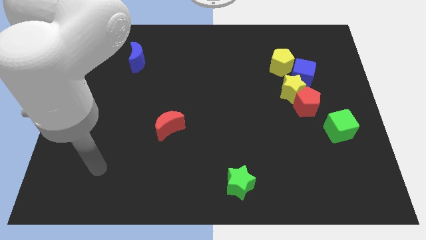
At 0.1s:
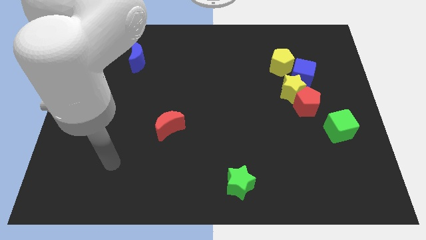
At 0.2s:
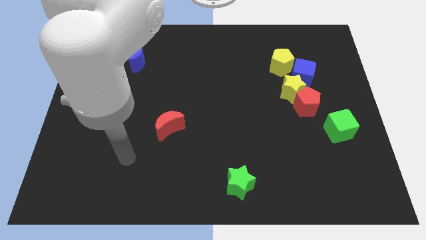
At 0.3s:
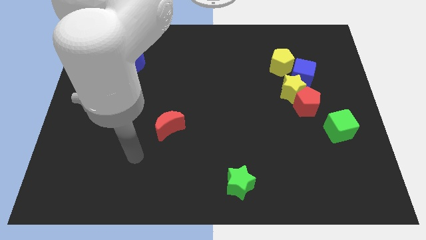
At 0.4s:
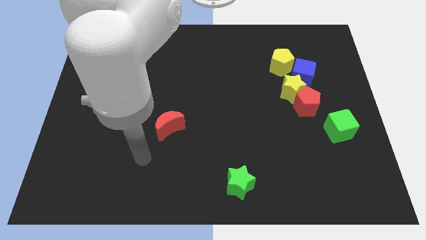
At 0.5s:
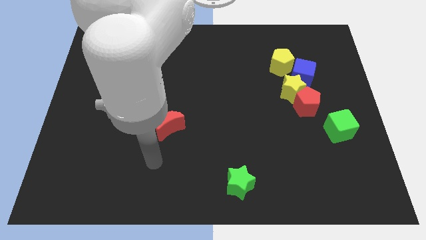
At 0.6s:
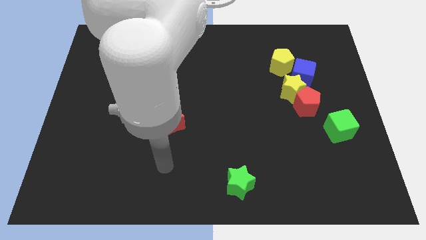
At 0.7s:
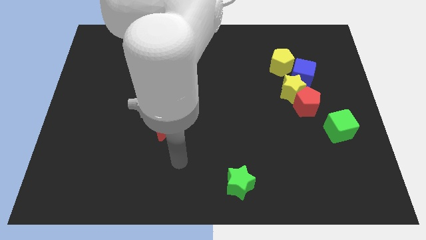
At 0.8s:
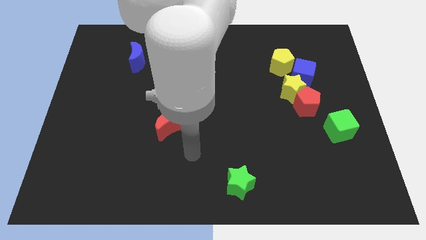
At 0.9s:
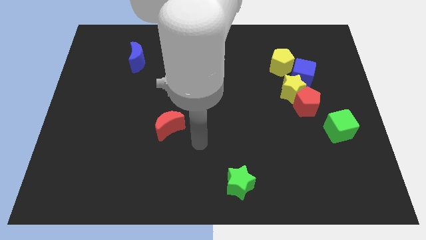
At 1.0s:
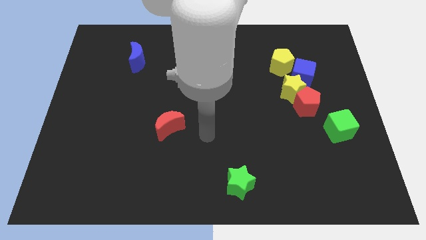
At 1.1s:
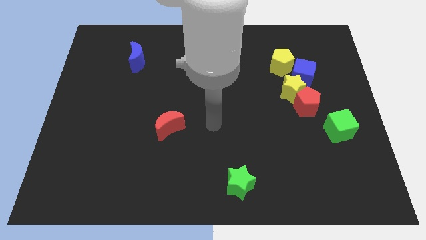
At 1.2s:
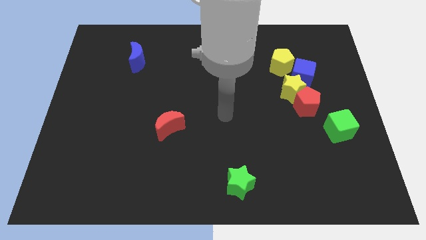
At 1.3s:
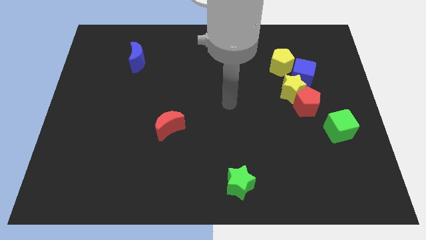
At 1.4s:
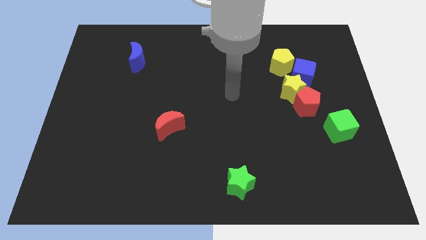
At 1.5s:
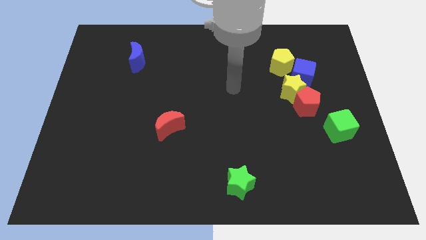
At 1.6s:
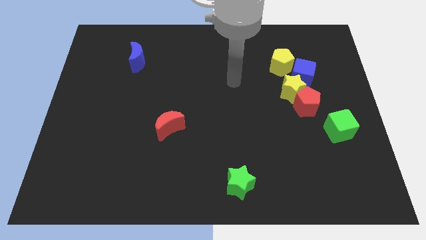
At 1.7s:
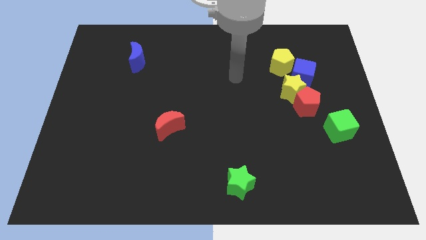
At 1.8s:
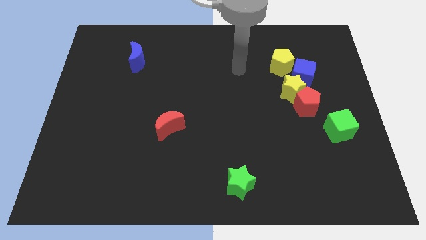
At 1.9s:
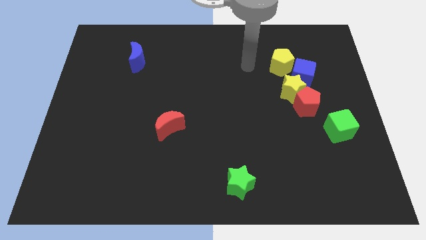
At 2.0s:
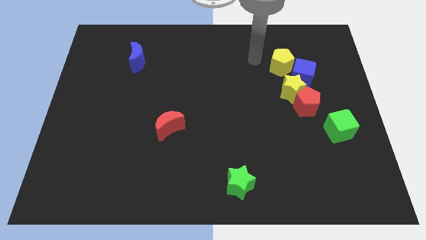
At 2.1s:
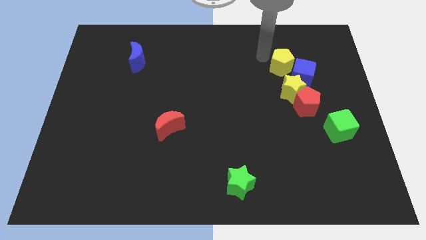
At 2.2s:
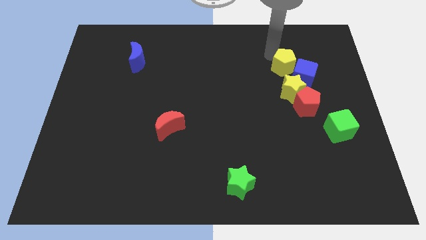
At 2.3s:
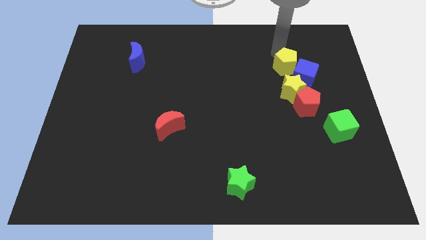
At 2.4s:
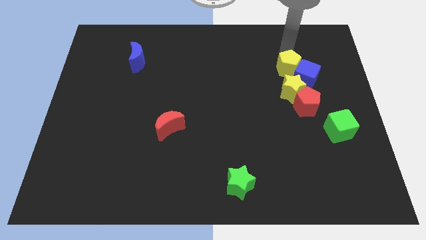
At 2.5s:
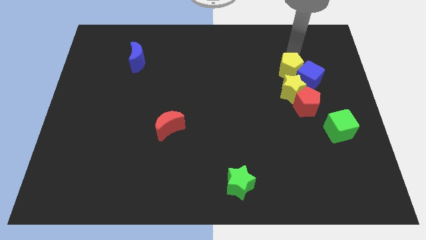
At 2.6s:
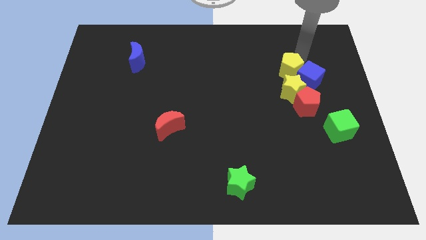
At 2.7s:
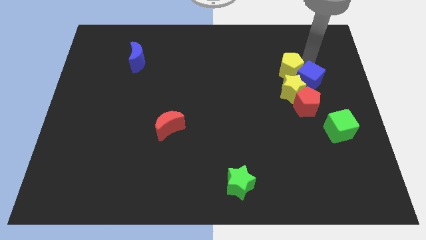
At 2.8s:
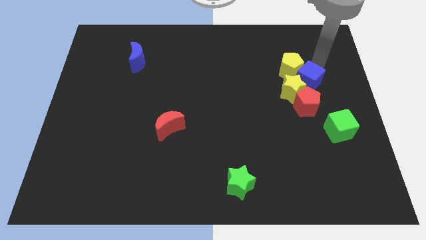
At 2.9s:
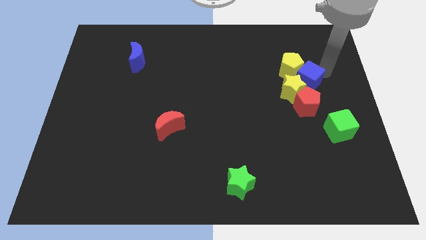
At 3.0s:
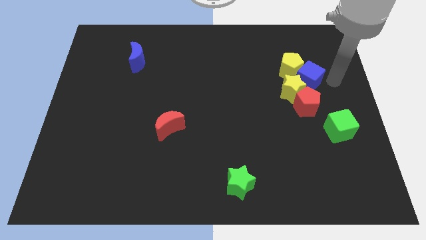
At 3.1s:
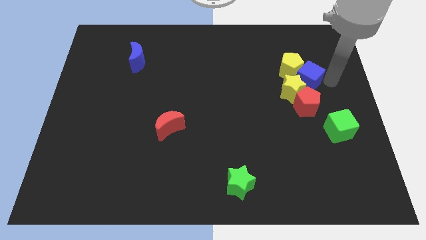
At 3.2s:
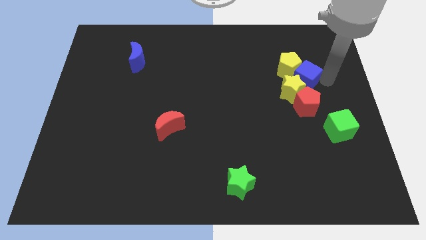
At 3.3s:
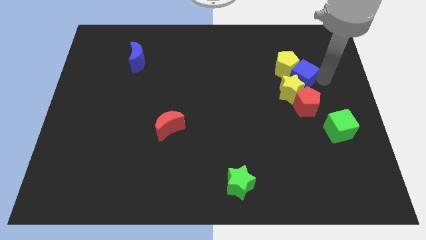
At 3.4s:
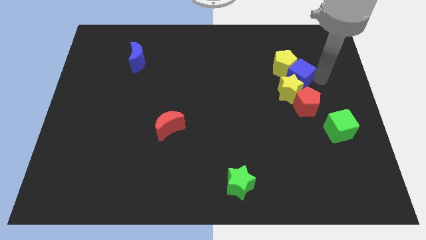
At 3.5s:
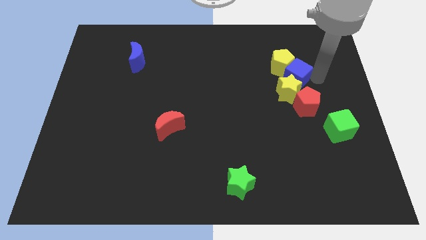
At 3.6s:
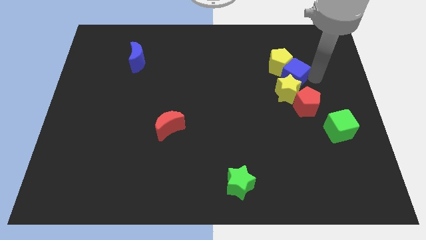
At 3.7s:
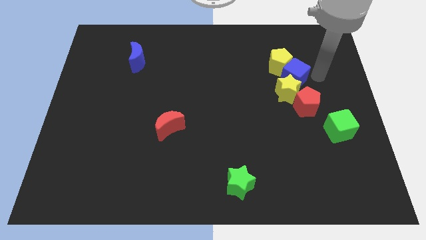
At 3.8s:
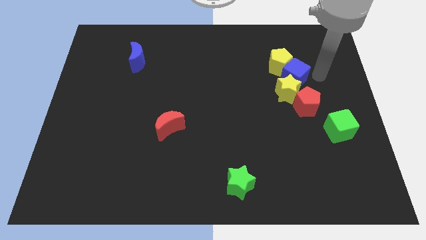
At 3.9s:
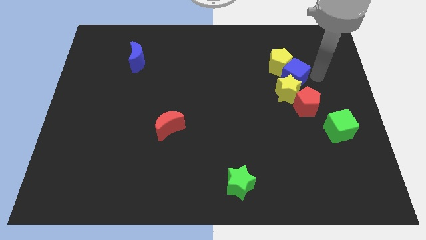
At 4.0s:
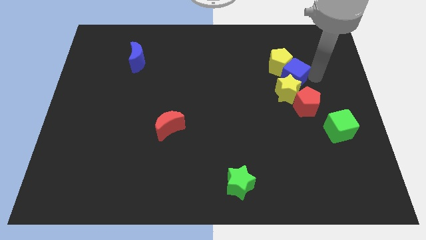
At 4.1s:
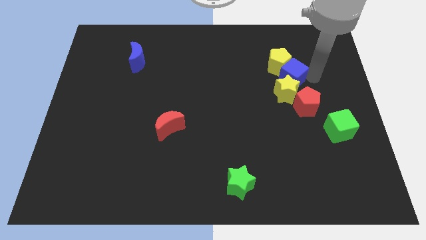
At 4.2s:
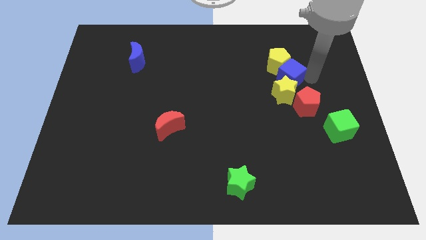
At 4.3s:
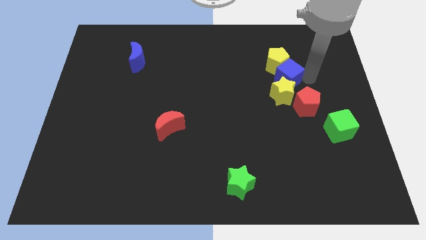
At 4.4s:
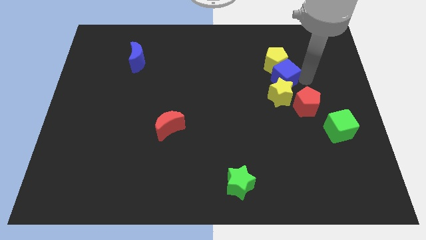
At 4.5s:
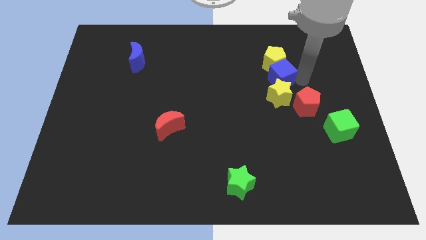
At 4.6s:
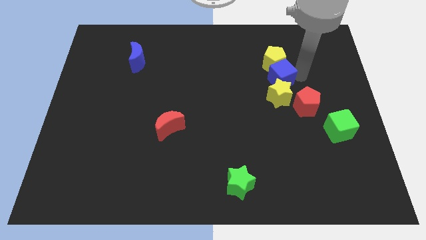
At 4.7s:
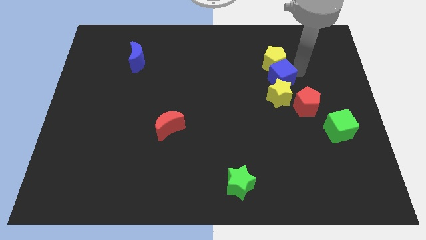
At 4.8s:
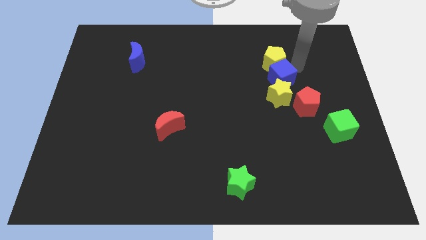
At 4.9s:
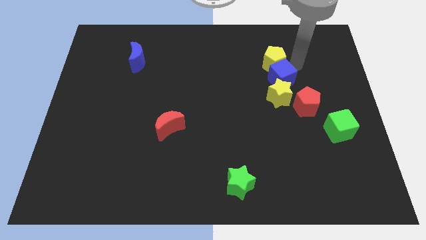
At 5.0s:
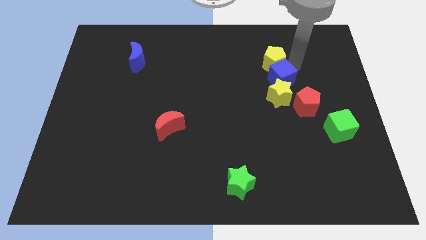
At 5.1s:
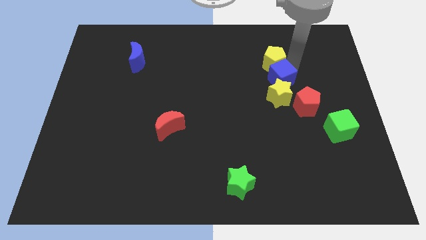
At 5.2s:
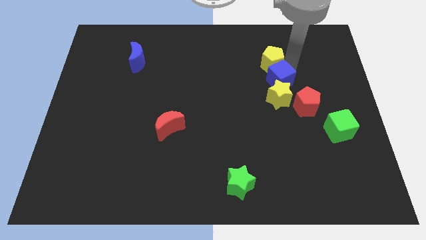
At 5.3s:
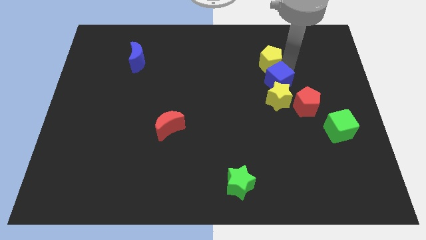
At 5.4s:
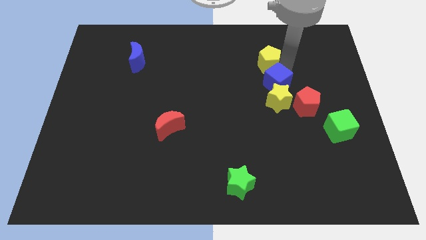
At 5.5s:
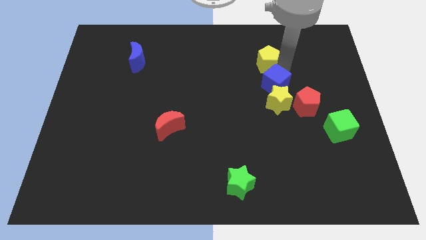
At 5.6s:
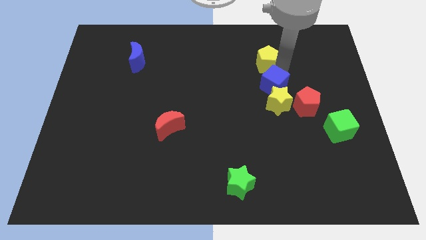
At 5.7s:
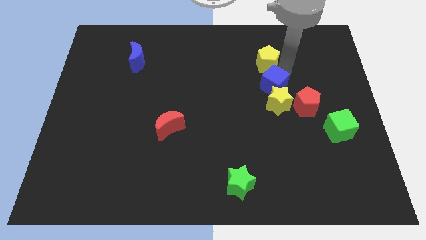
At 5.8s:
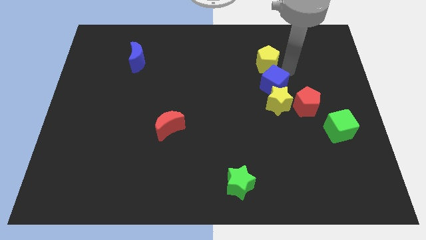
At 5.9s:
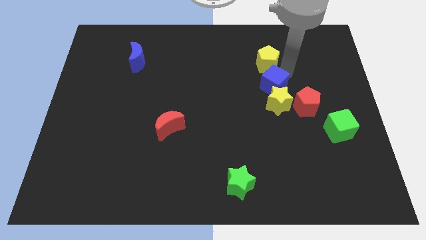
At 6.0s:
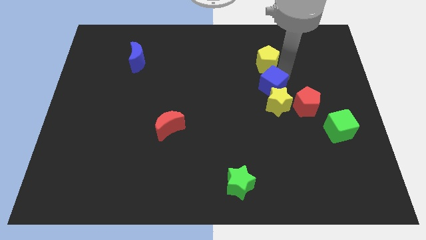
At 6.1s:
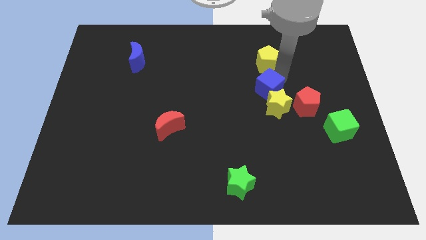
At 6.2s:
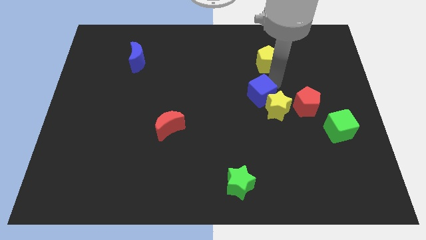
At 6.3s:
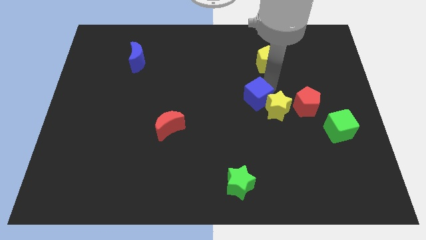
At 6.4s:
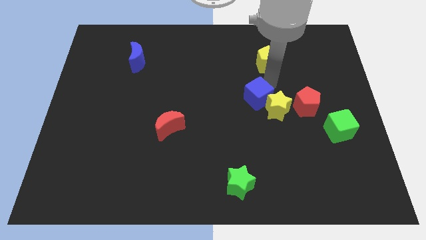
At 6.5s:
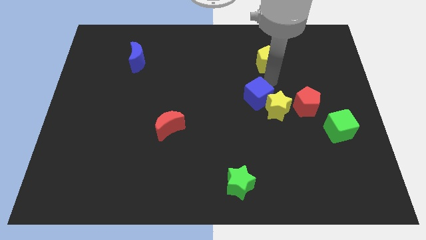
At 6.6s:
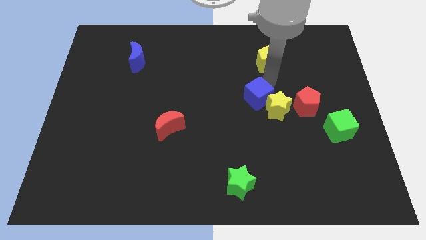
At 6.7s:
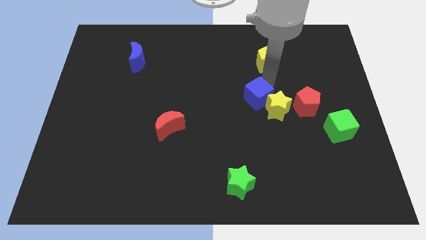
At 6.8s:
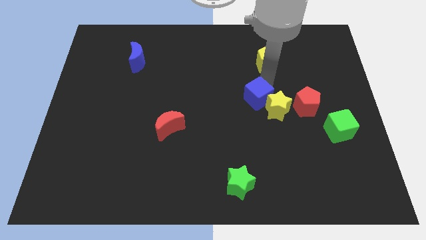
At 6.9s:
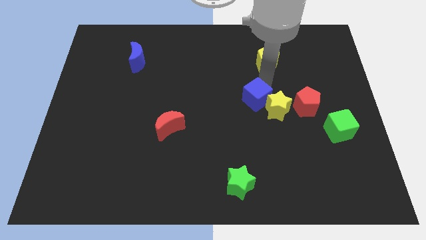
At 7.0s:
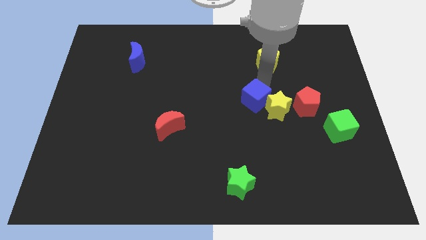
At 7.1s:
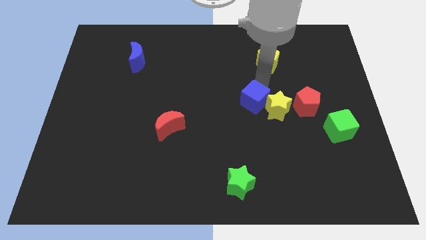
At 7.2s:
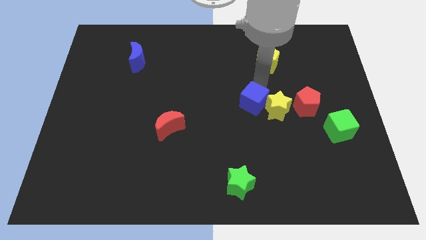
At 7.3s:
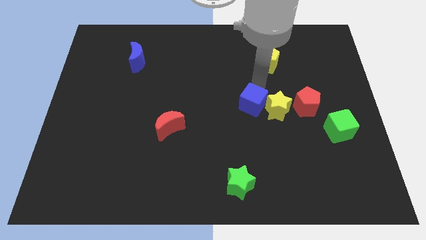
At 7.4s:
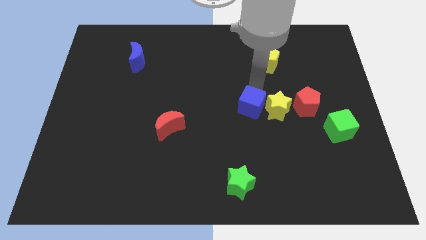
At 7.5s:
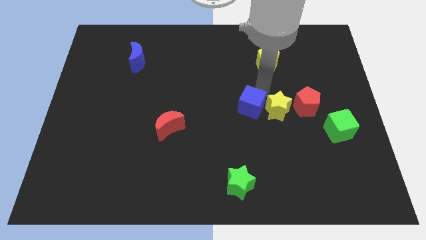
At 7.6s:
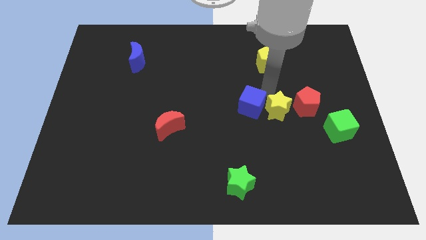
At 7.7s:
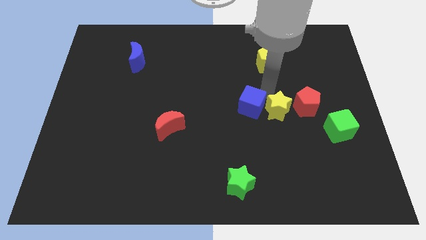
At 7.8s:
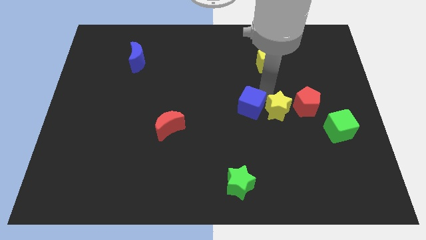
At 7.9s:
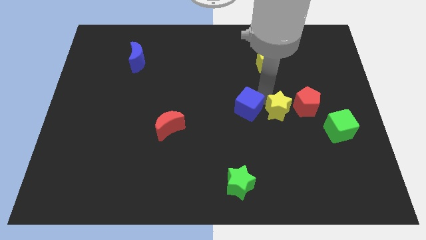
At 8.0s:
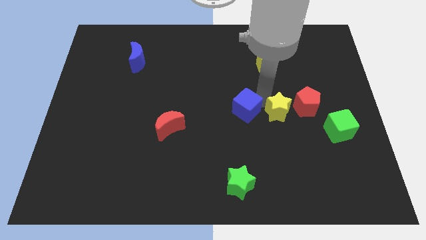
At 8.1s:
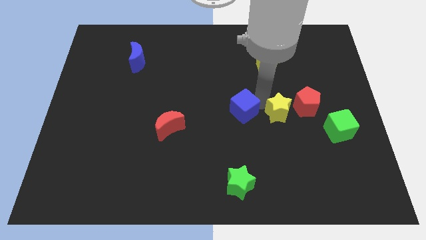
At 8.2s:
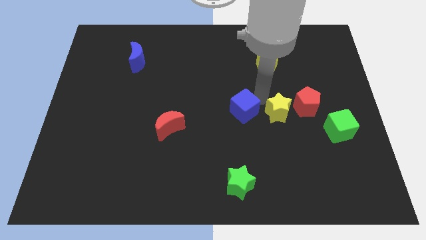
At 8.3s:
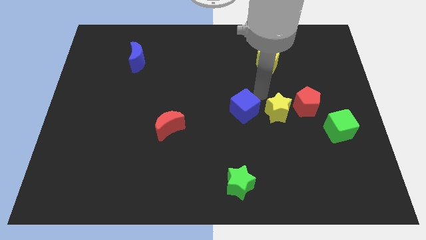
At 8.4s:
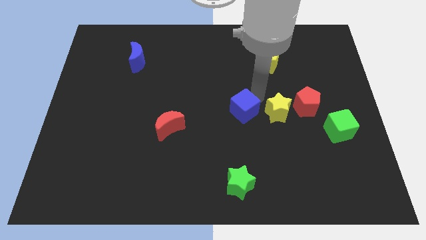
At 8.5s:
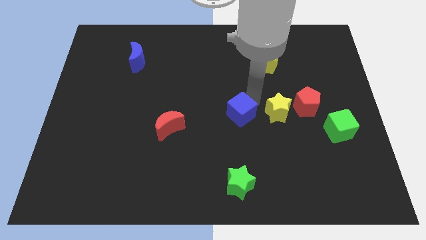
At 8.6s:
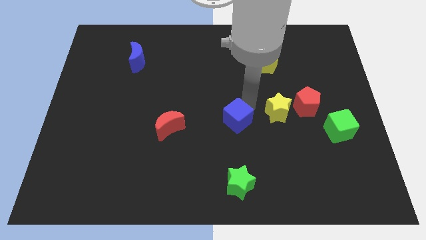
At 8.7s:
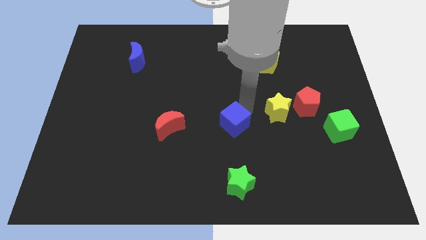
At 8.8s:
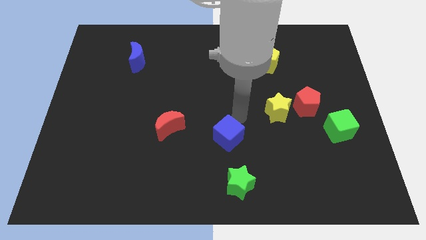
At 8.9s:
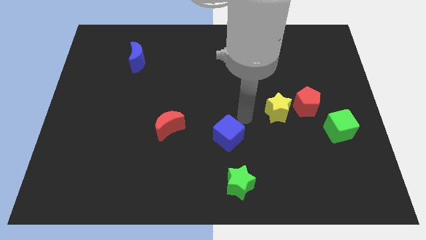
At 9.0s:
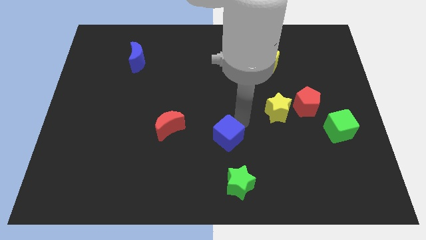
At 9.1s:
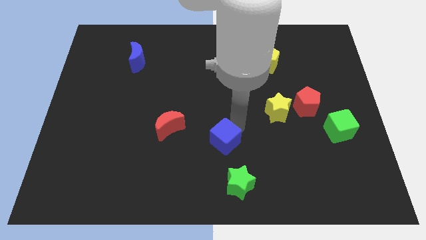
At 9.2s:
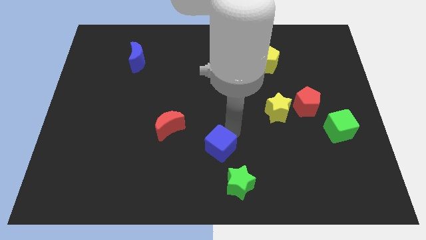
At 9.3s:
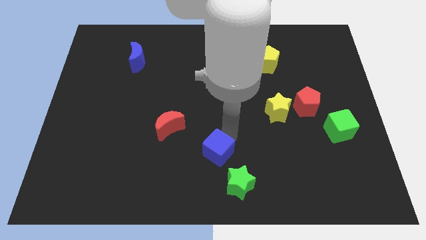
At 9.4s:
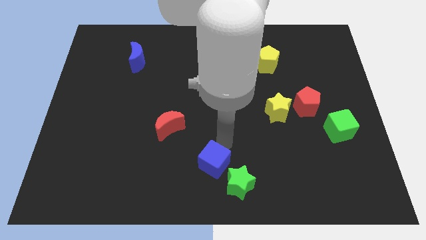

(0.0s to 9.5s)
move the blue cube left of the green star
